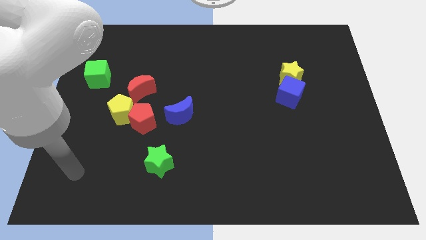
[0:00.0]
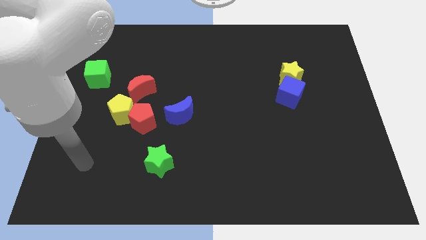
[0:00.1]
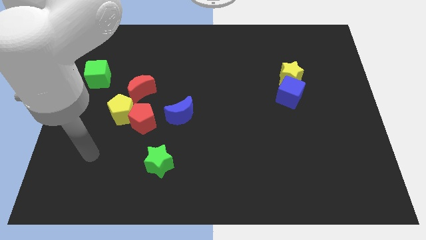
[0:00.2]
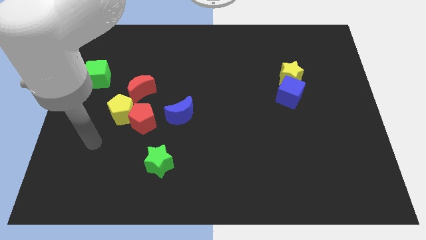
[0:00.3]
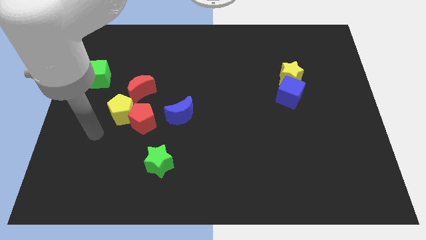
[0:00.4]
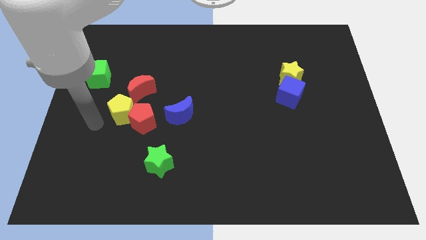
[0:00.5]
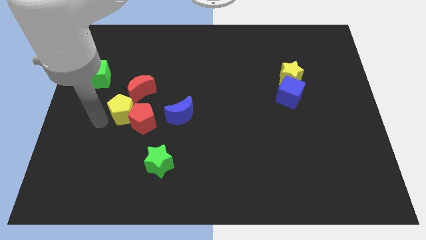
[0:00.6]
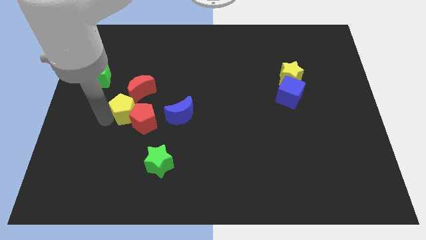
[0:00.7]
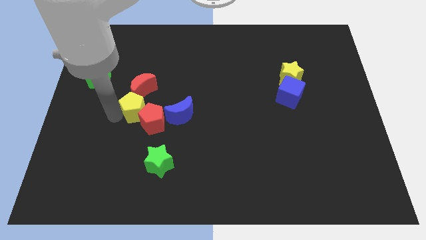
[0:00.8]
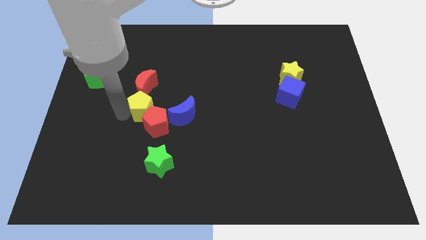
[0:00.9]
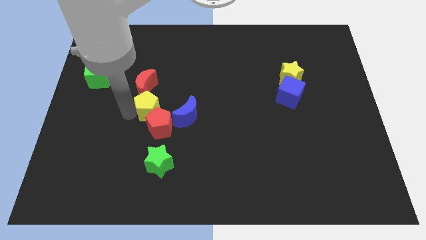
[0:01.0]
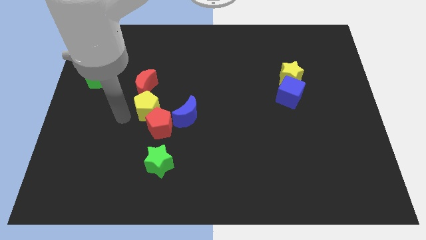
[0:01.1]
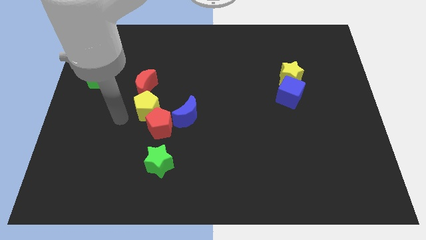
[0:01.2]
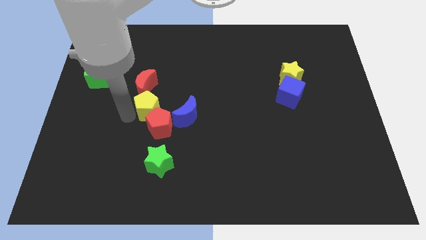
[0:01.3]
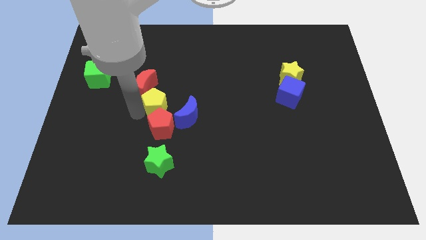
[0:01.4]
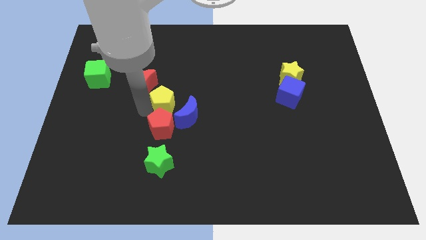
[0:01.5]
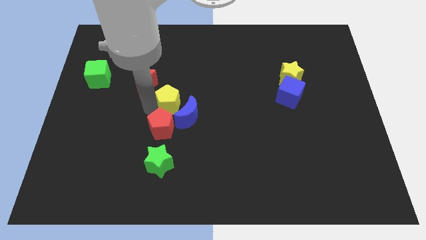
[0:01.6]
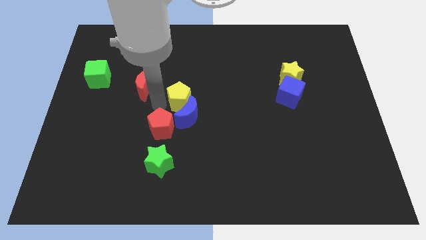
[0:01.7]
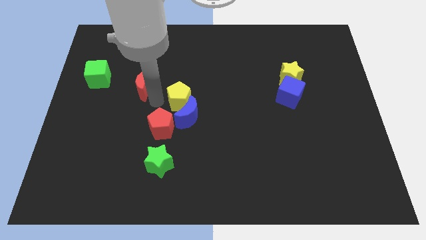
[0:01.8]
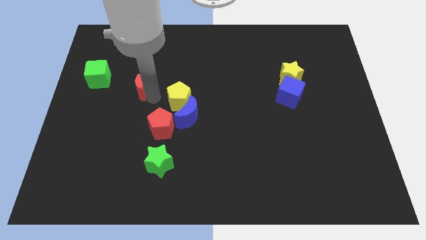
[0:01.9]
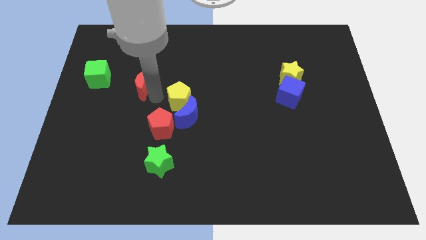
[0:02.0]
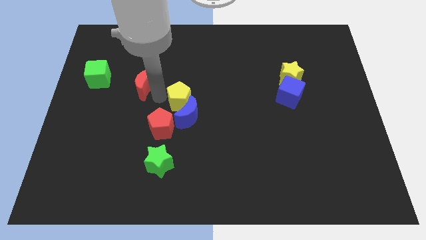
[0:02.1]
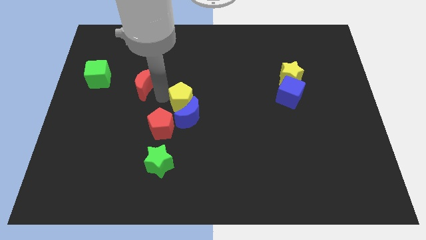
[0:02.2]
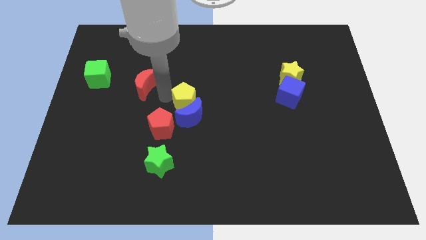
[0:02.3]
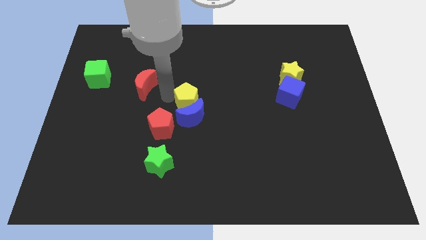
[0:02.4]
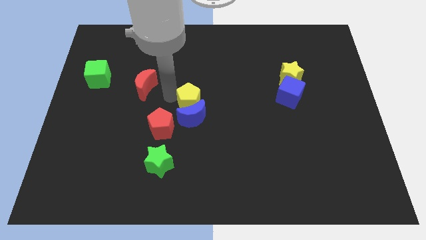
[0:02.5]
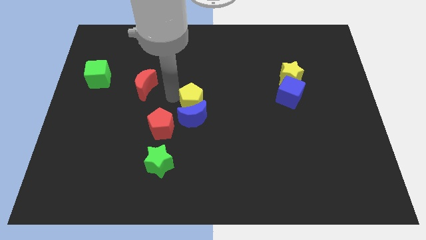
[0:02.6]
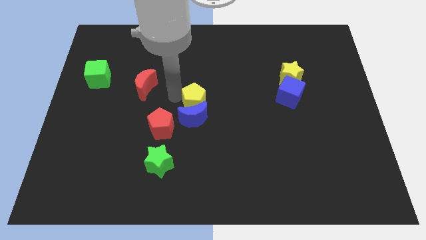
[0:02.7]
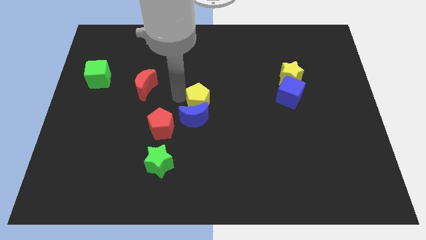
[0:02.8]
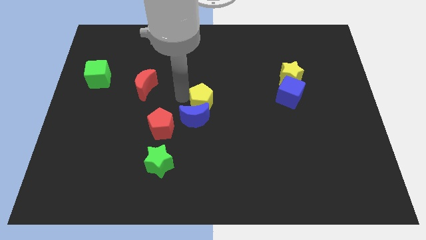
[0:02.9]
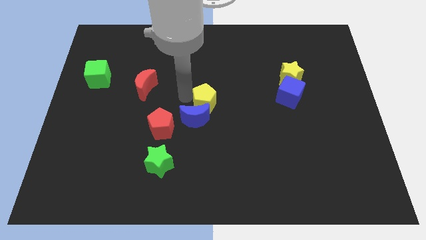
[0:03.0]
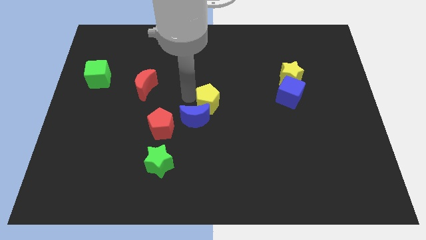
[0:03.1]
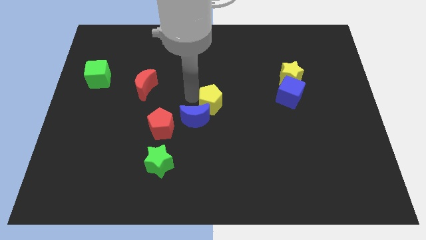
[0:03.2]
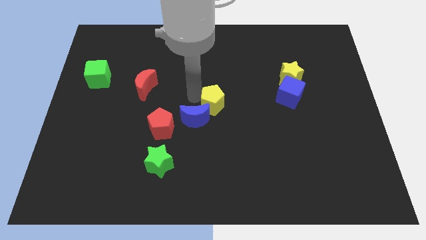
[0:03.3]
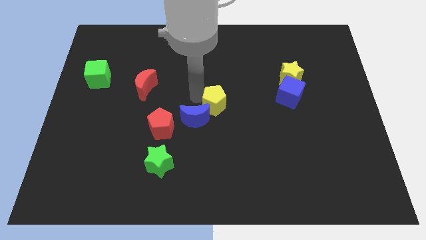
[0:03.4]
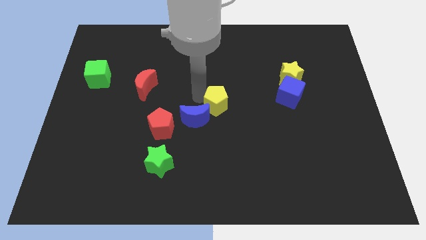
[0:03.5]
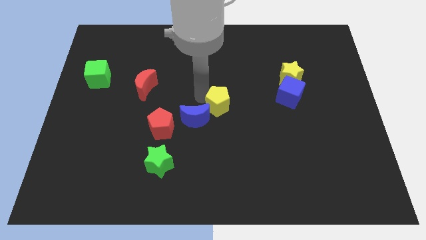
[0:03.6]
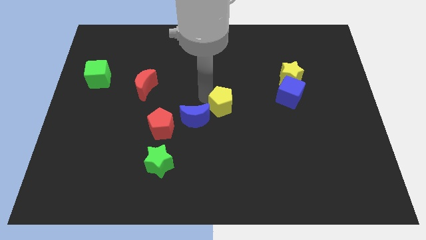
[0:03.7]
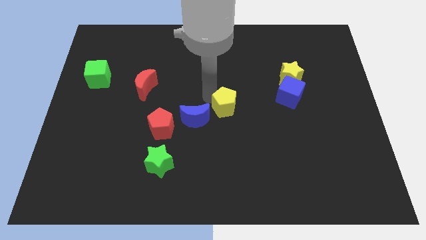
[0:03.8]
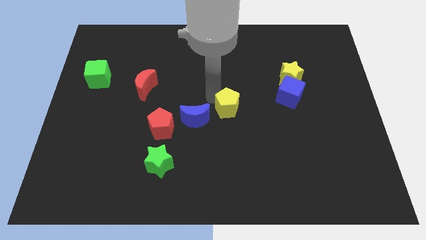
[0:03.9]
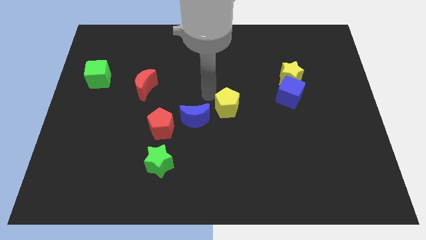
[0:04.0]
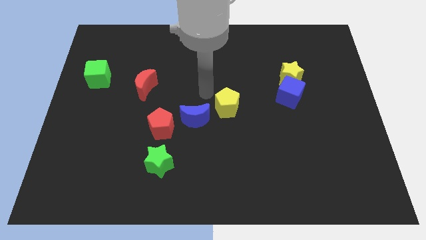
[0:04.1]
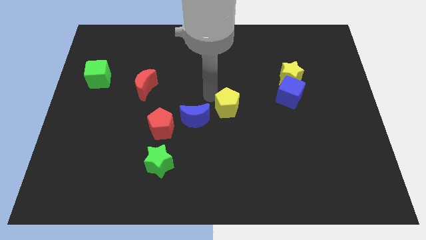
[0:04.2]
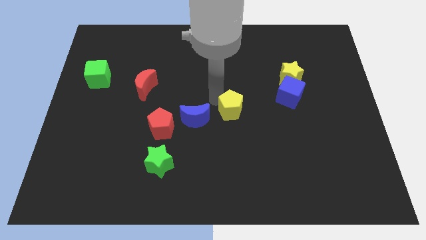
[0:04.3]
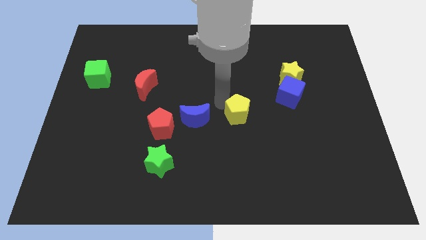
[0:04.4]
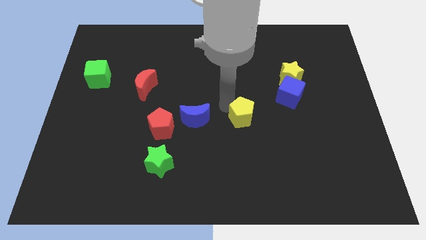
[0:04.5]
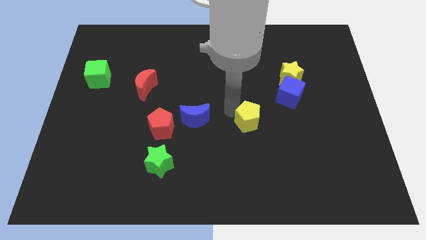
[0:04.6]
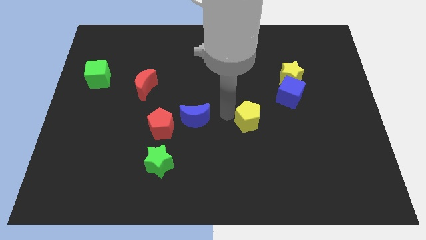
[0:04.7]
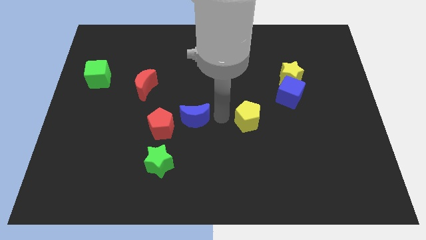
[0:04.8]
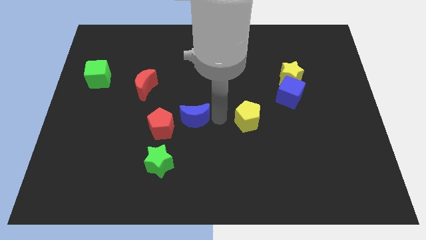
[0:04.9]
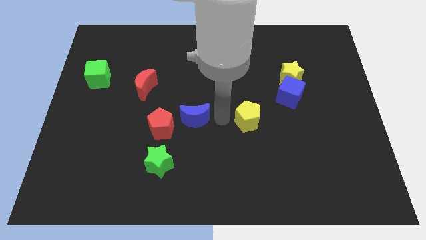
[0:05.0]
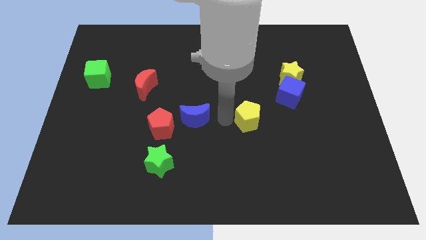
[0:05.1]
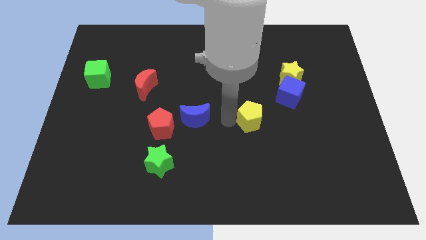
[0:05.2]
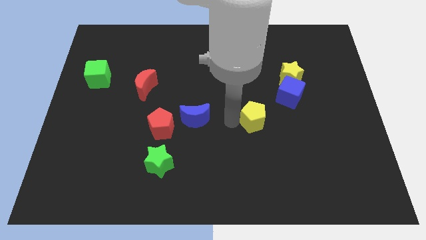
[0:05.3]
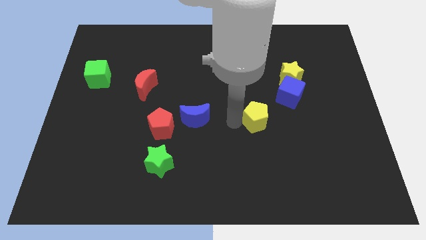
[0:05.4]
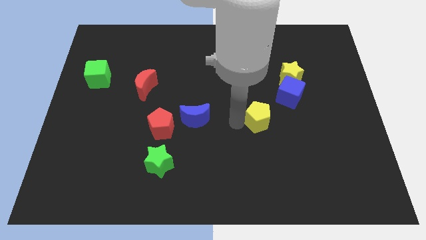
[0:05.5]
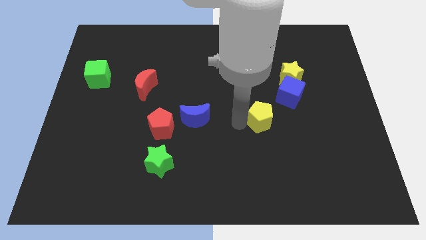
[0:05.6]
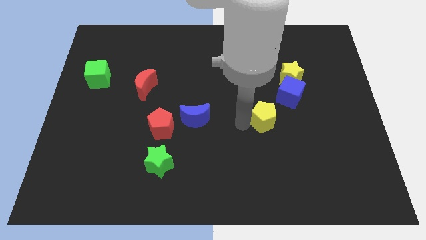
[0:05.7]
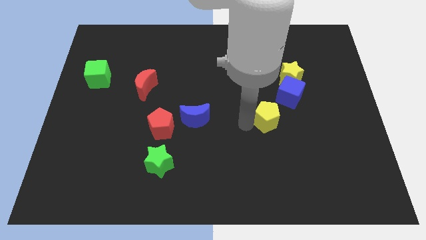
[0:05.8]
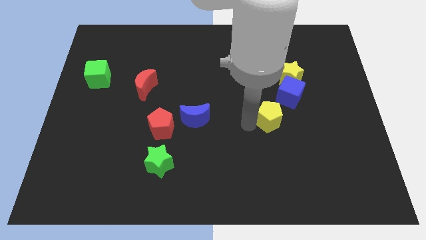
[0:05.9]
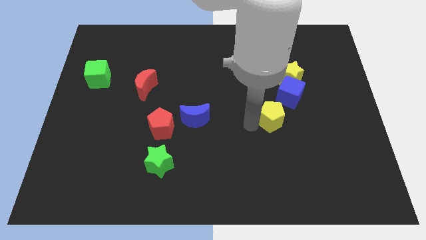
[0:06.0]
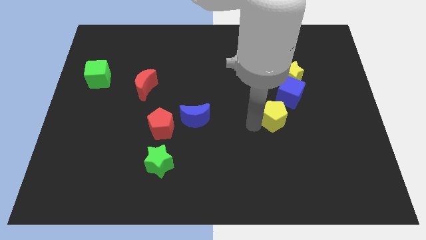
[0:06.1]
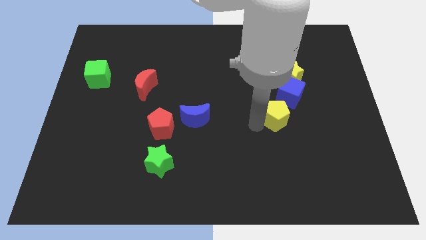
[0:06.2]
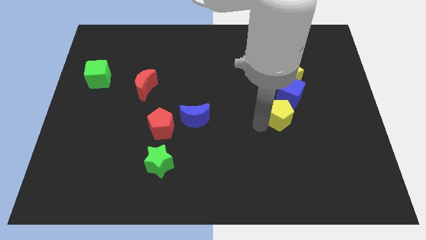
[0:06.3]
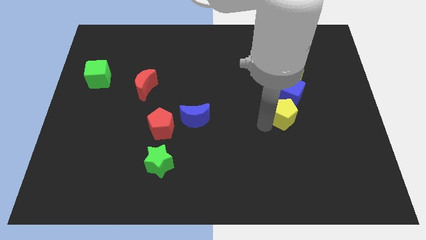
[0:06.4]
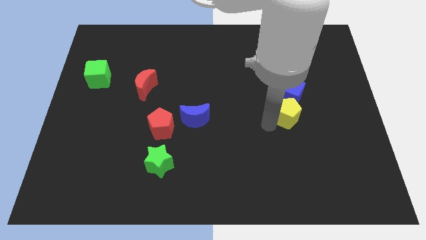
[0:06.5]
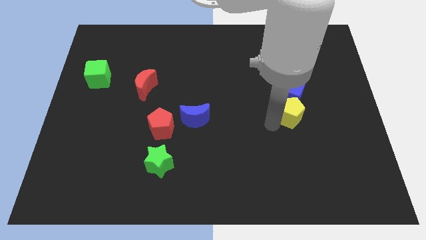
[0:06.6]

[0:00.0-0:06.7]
slide the yellow pentagon to the bottom right of the blue cube

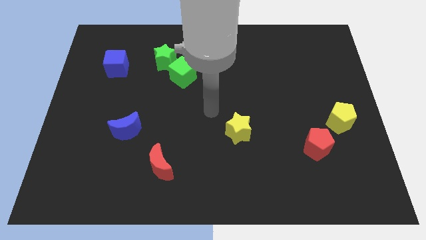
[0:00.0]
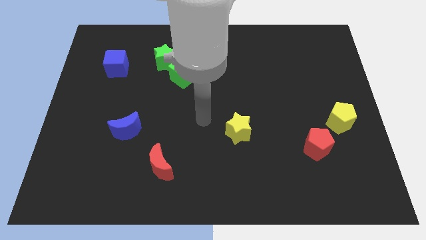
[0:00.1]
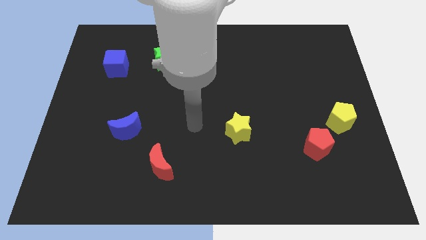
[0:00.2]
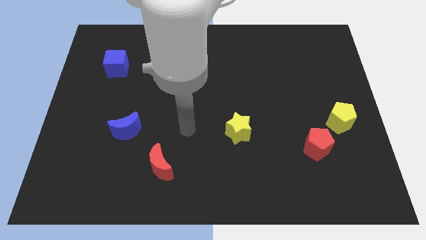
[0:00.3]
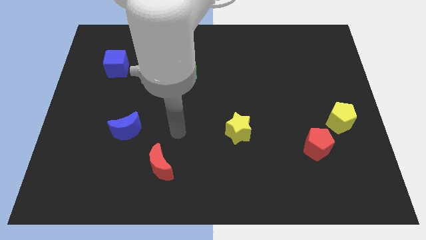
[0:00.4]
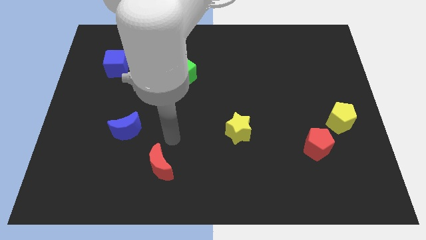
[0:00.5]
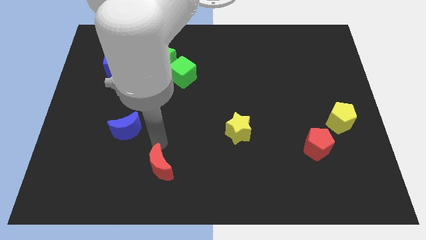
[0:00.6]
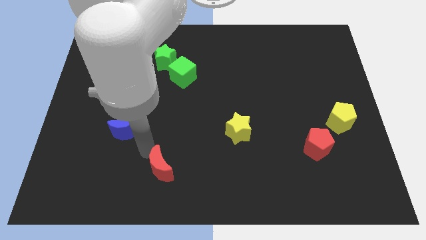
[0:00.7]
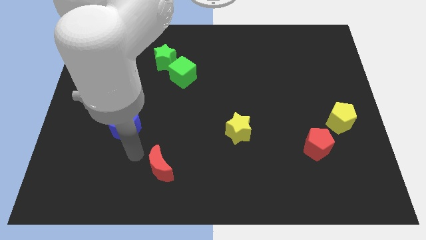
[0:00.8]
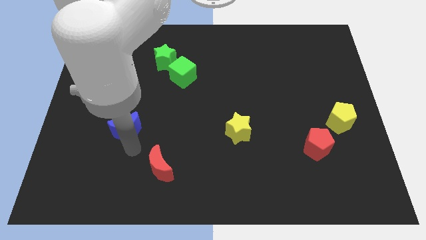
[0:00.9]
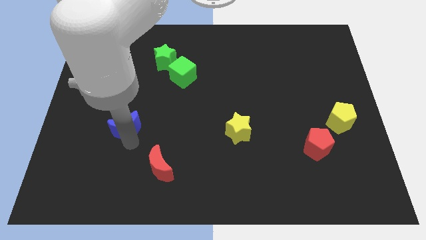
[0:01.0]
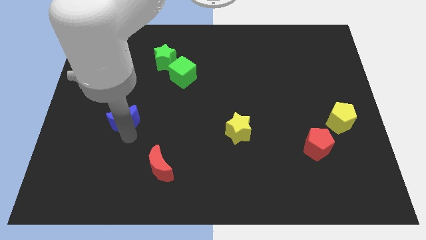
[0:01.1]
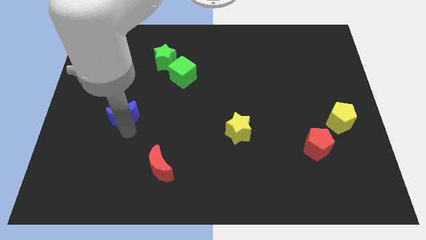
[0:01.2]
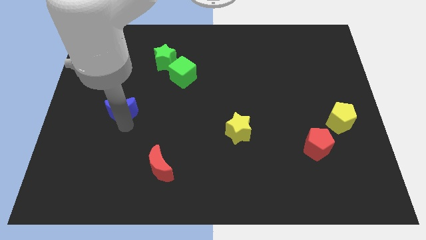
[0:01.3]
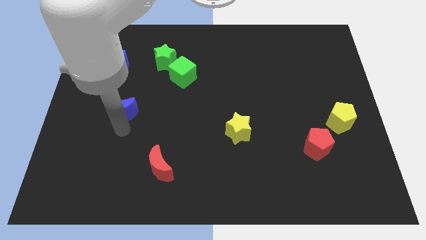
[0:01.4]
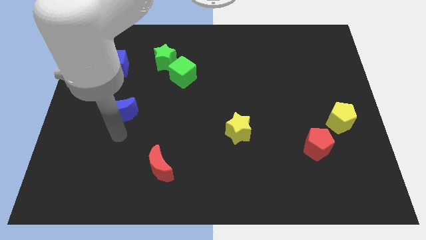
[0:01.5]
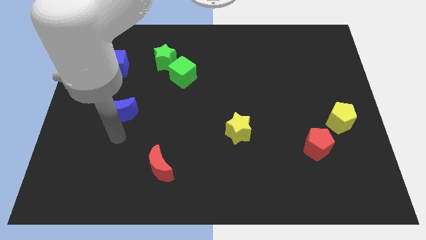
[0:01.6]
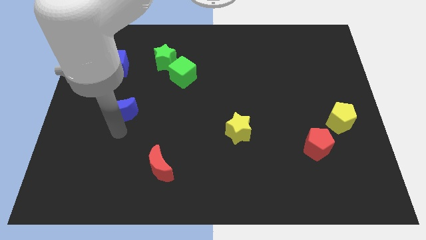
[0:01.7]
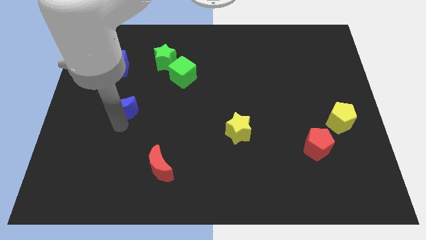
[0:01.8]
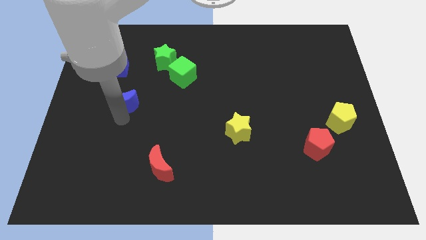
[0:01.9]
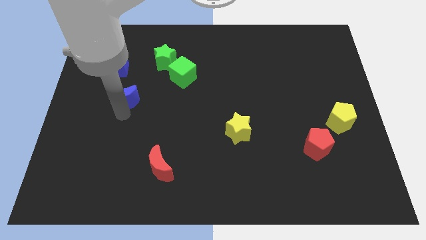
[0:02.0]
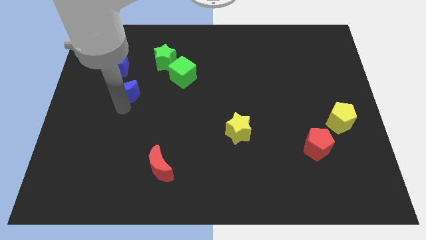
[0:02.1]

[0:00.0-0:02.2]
slide the blue moon to the bottom right of the blue cube
